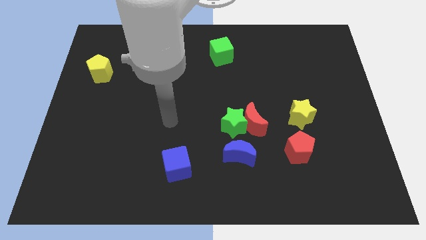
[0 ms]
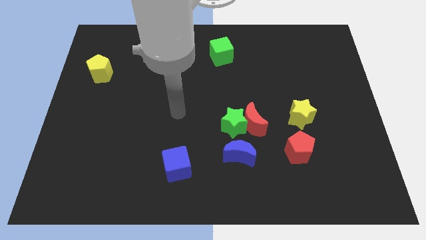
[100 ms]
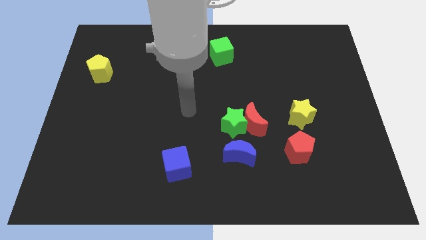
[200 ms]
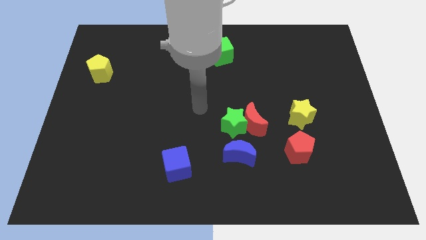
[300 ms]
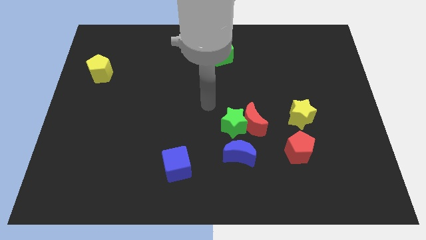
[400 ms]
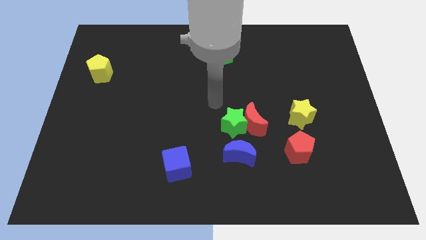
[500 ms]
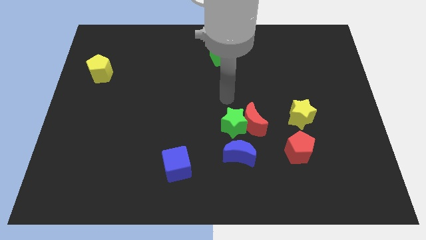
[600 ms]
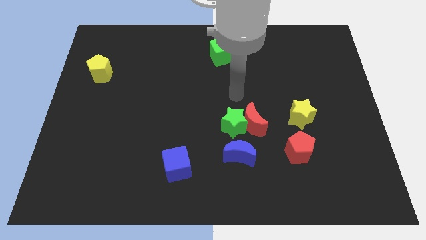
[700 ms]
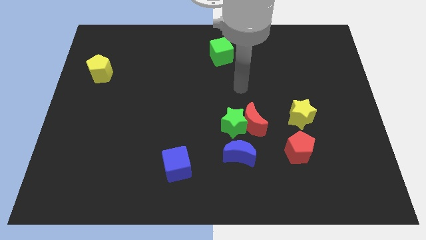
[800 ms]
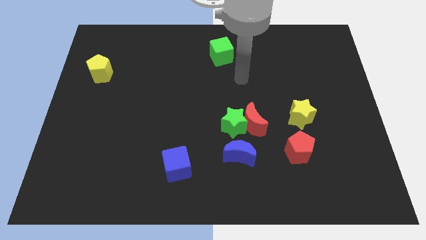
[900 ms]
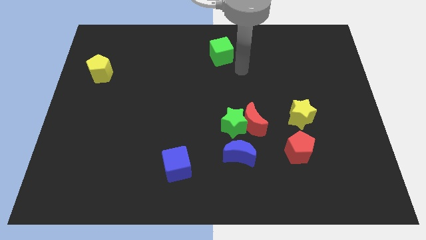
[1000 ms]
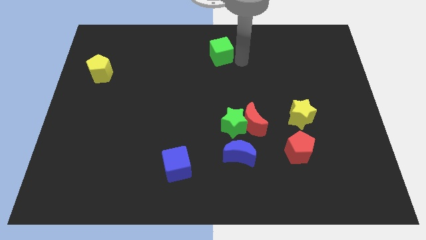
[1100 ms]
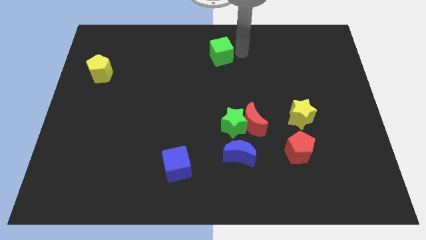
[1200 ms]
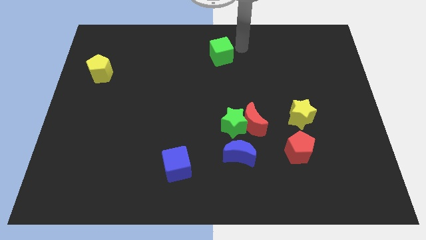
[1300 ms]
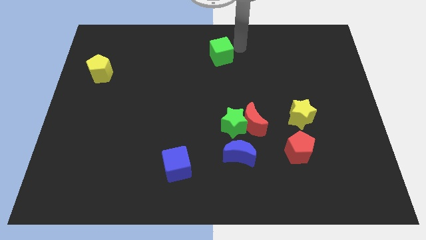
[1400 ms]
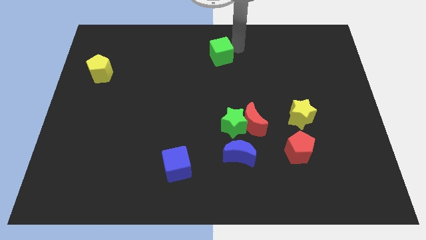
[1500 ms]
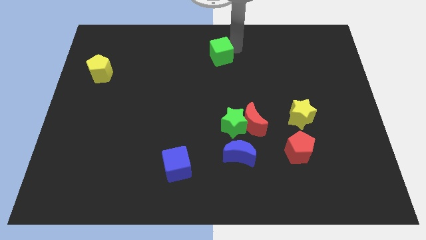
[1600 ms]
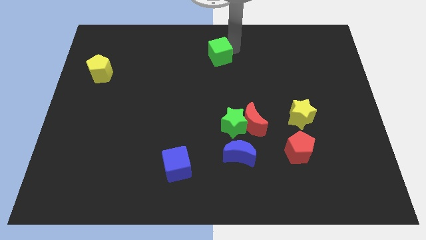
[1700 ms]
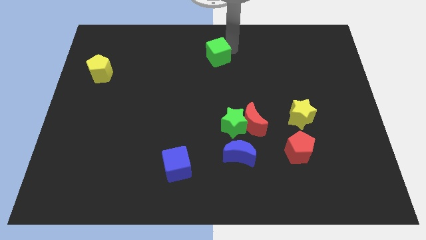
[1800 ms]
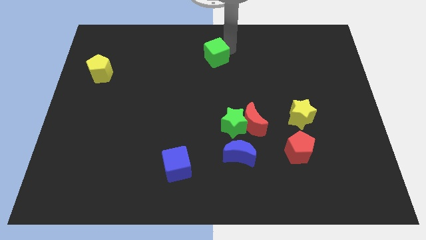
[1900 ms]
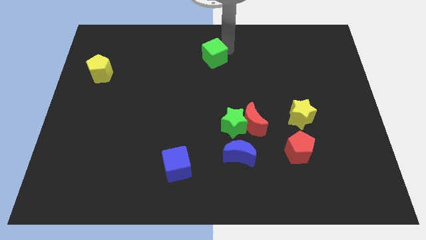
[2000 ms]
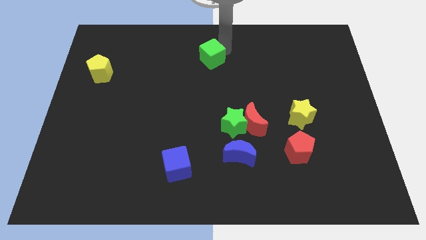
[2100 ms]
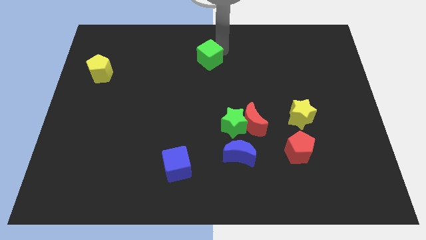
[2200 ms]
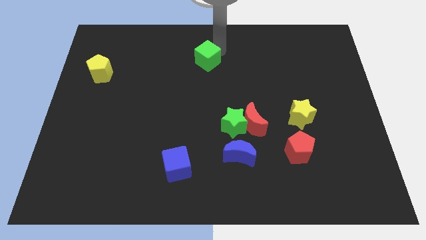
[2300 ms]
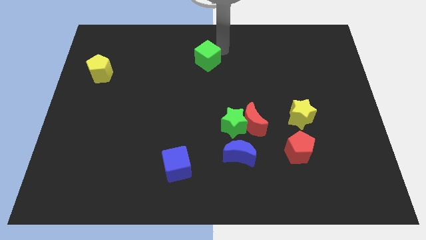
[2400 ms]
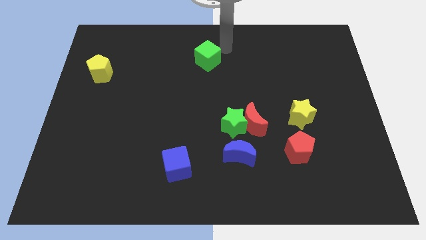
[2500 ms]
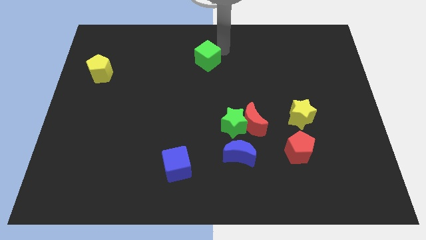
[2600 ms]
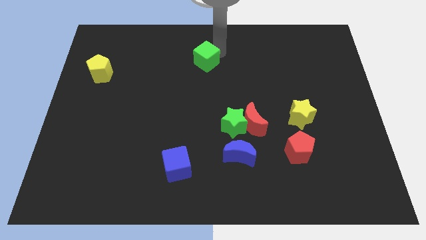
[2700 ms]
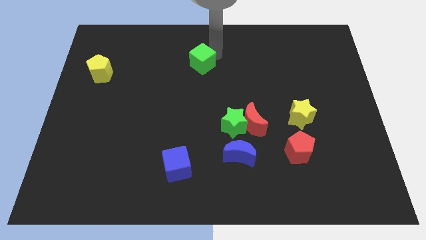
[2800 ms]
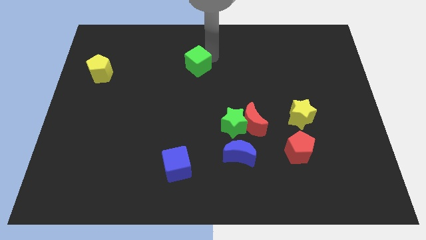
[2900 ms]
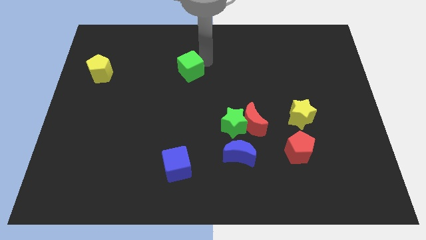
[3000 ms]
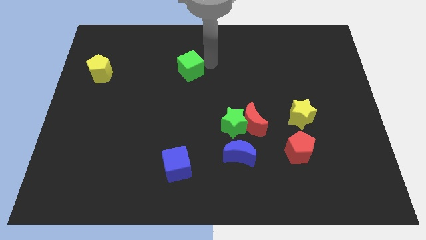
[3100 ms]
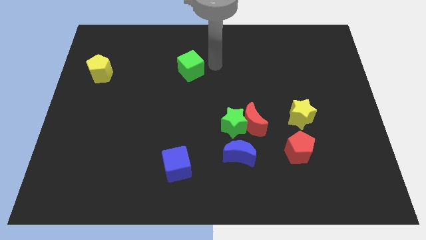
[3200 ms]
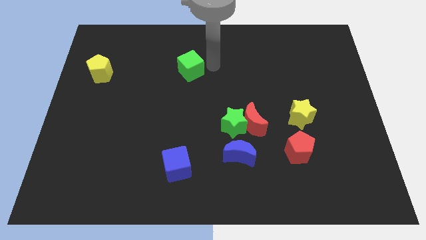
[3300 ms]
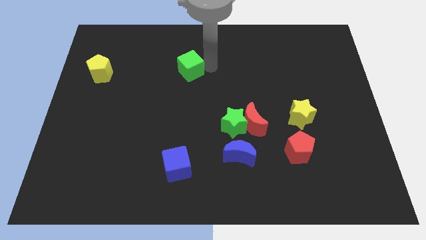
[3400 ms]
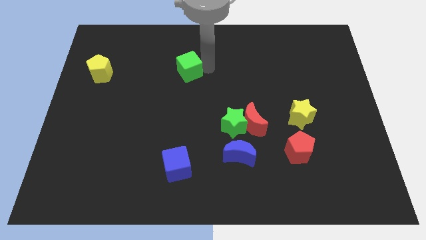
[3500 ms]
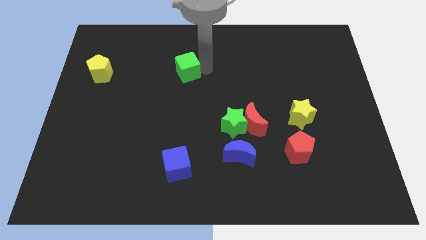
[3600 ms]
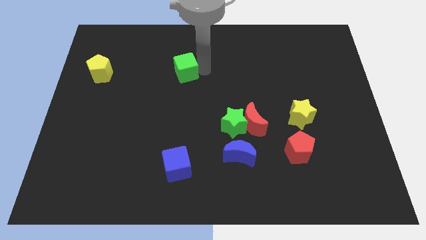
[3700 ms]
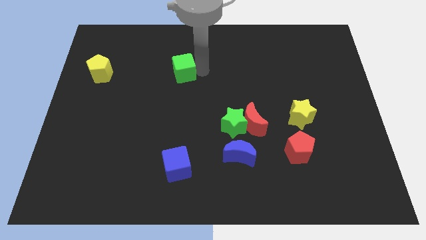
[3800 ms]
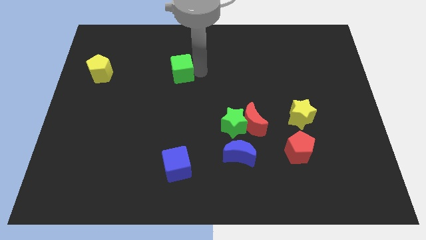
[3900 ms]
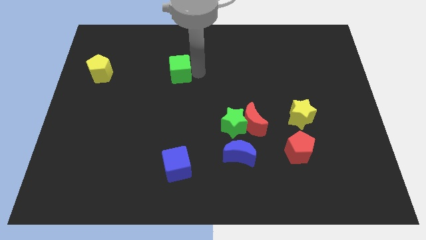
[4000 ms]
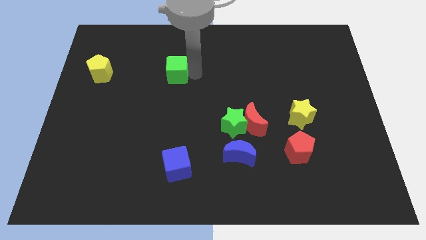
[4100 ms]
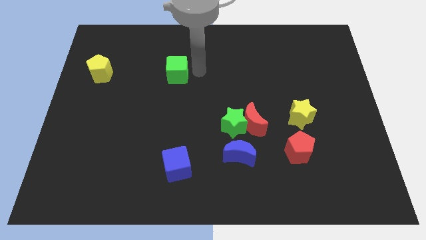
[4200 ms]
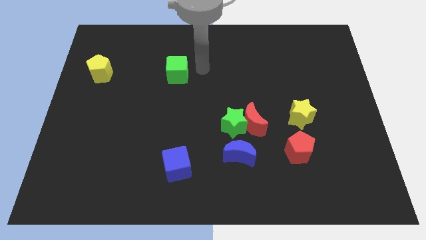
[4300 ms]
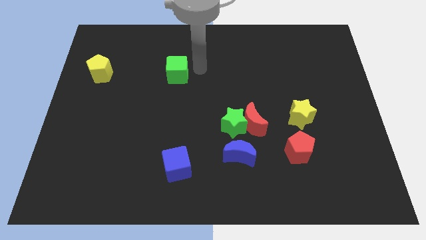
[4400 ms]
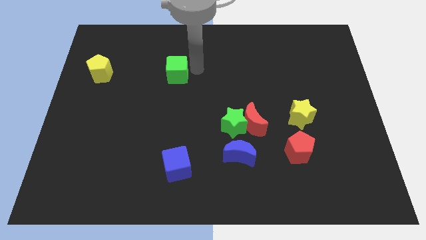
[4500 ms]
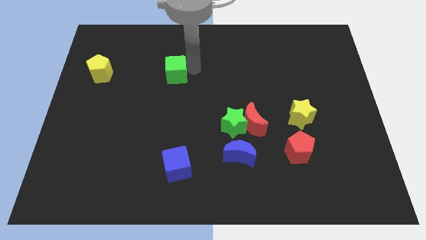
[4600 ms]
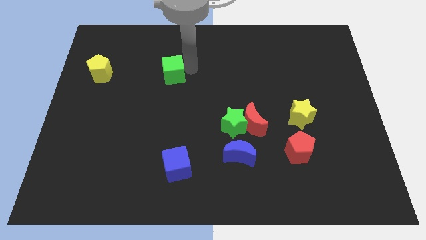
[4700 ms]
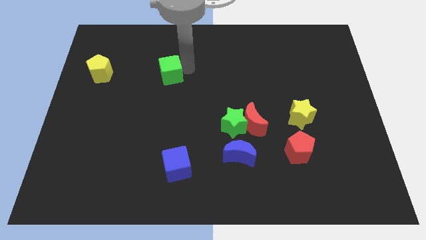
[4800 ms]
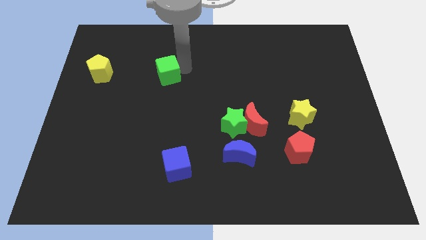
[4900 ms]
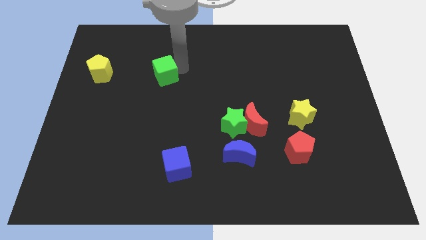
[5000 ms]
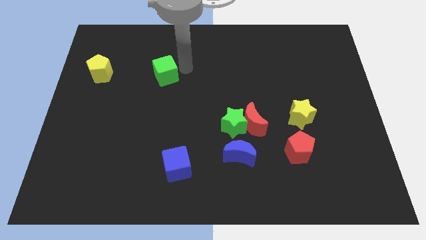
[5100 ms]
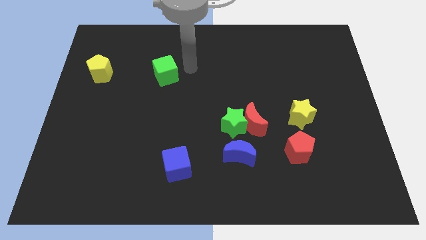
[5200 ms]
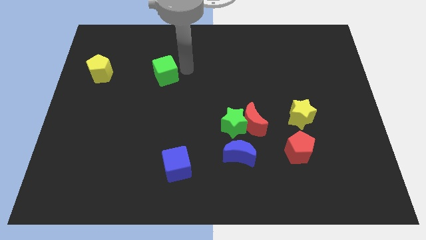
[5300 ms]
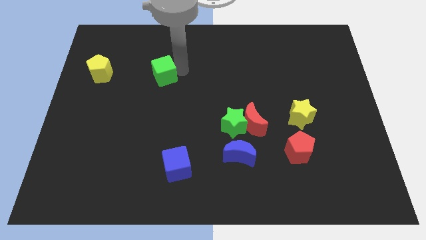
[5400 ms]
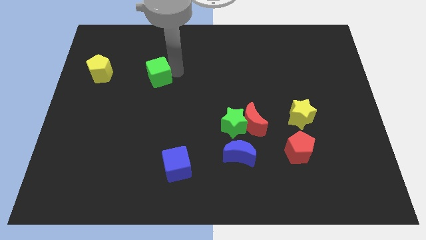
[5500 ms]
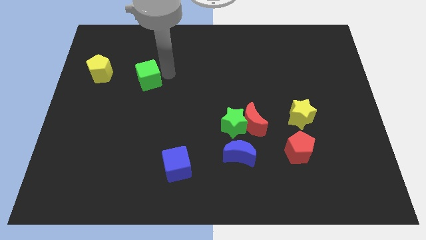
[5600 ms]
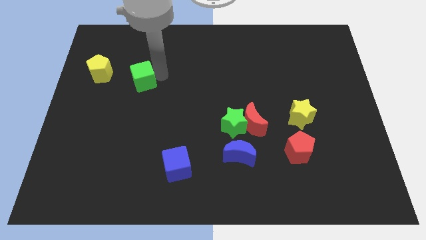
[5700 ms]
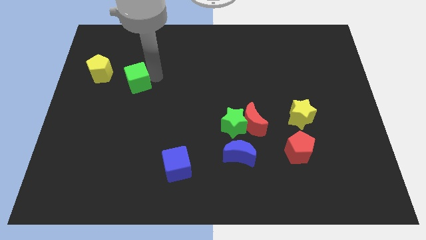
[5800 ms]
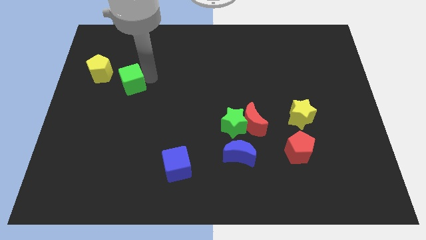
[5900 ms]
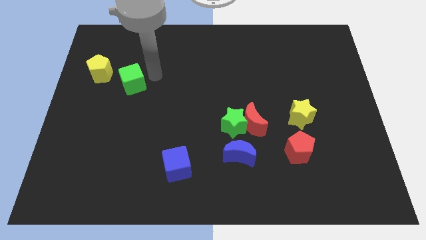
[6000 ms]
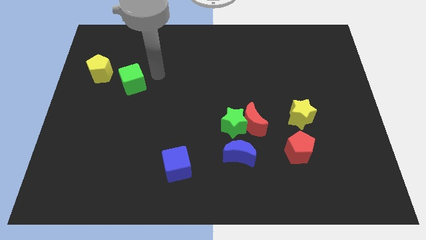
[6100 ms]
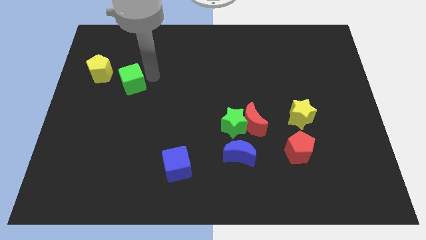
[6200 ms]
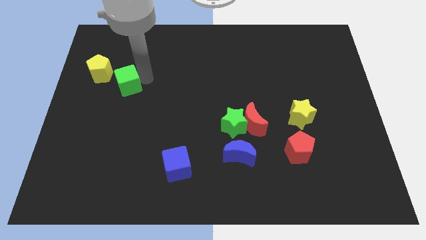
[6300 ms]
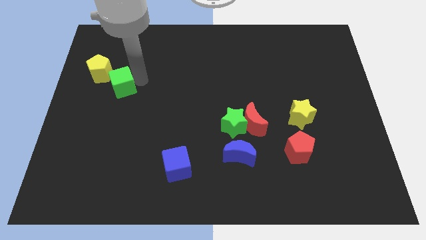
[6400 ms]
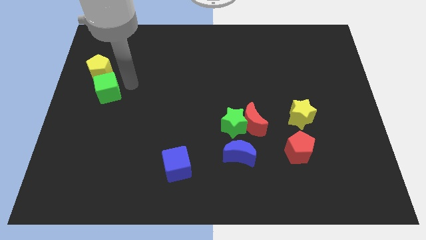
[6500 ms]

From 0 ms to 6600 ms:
move the green cube to the center left
